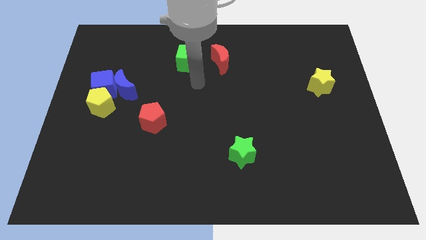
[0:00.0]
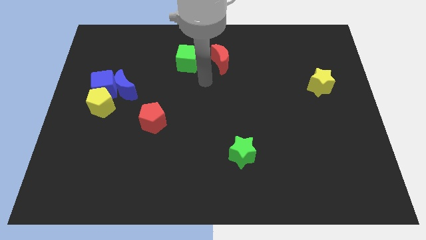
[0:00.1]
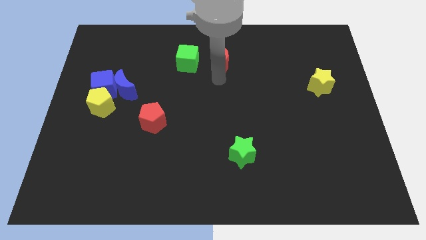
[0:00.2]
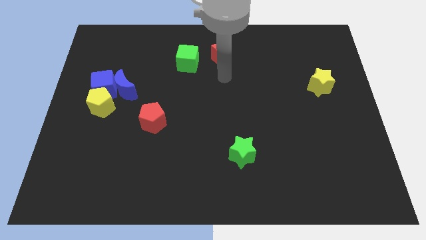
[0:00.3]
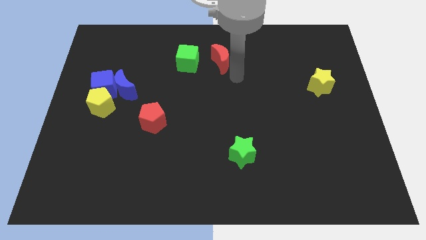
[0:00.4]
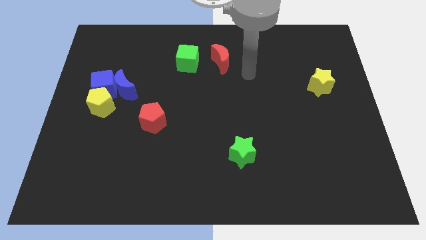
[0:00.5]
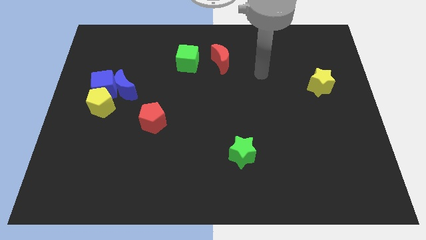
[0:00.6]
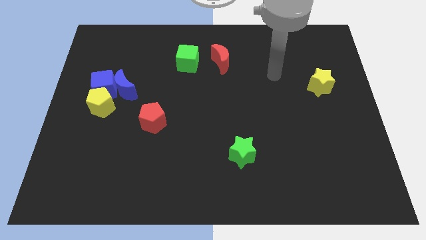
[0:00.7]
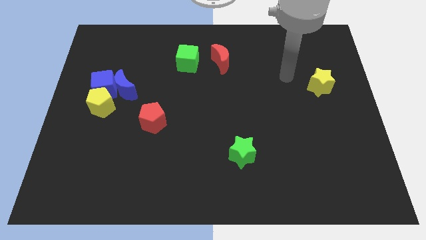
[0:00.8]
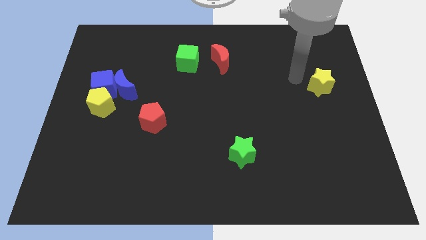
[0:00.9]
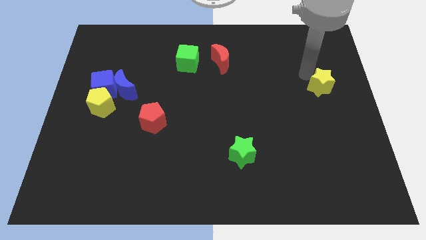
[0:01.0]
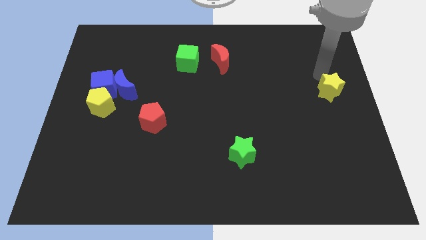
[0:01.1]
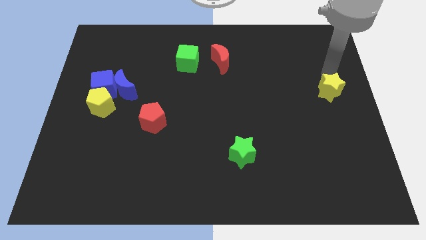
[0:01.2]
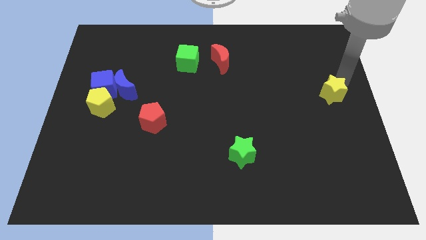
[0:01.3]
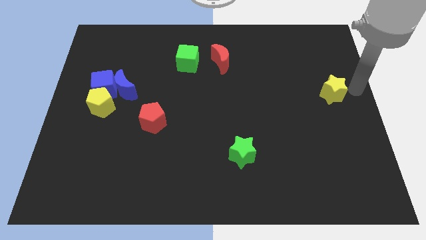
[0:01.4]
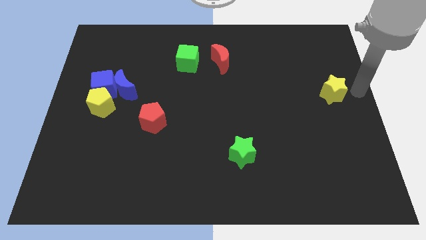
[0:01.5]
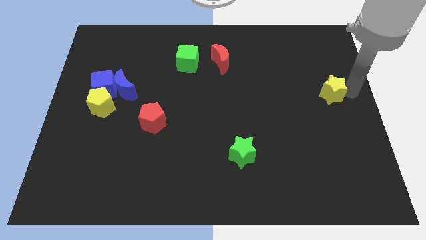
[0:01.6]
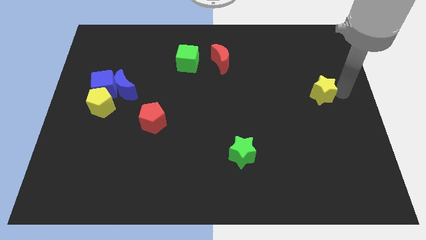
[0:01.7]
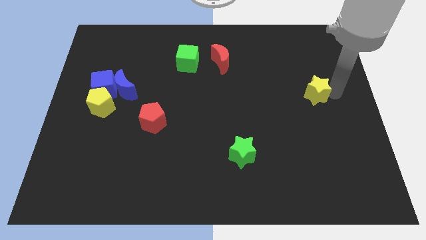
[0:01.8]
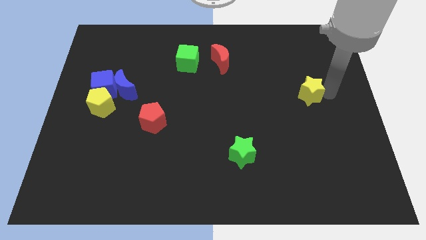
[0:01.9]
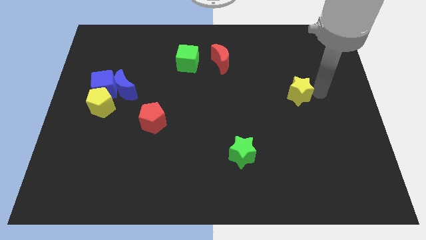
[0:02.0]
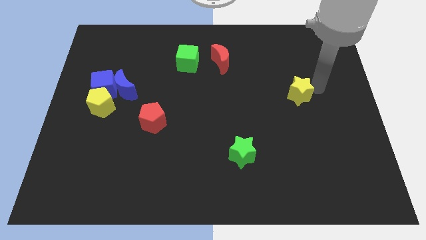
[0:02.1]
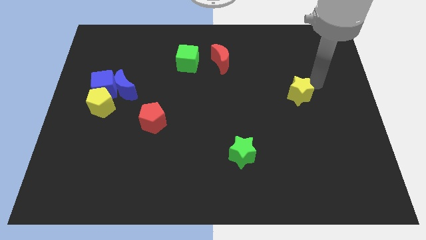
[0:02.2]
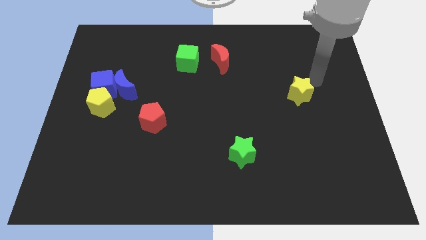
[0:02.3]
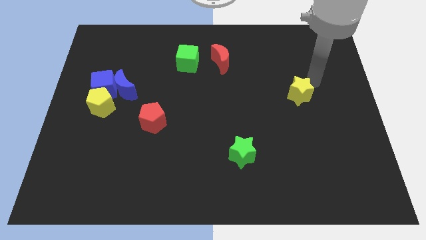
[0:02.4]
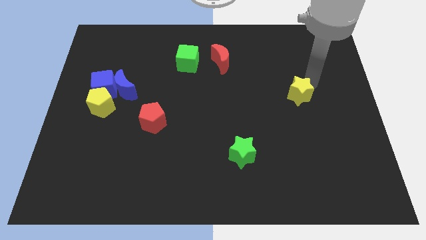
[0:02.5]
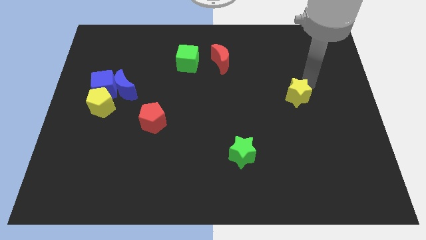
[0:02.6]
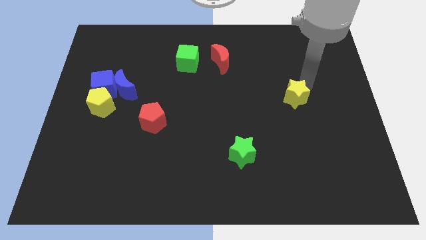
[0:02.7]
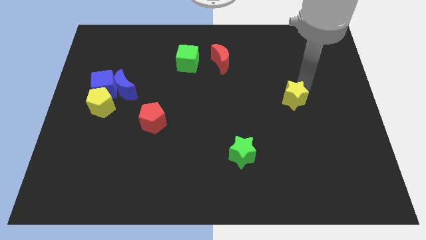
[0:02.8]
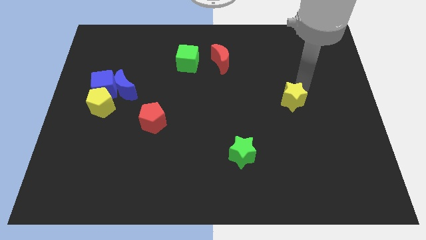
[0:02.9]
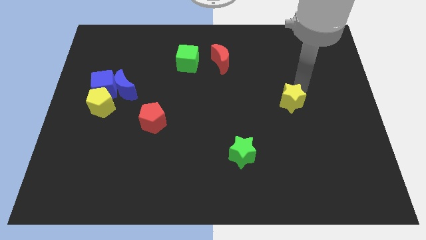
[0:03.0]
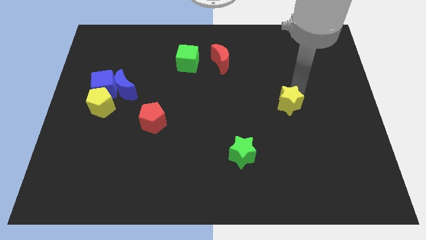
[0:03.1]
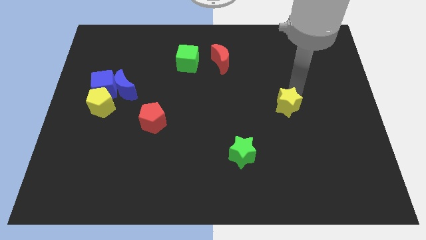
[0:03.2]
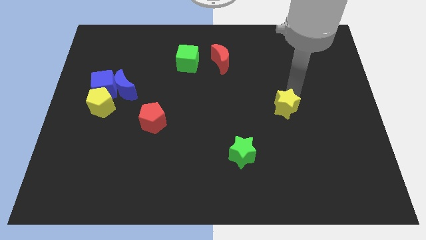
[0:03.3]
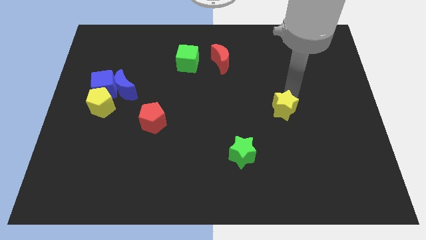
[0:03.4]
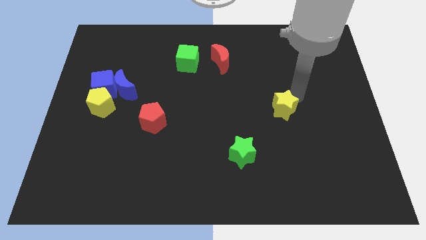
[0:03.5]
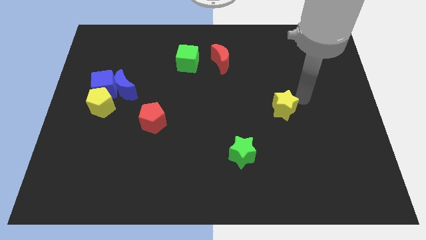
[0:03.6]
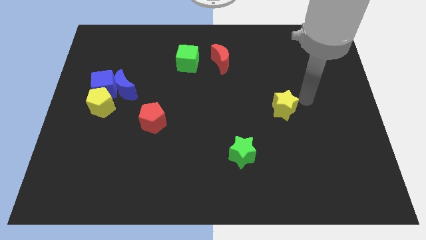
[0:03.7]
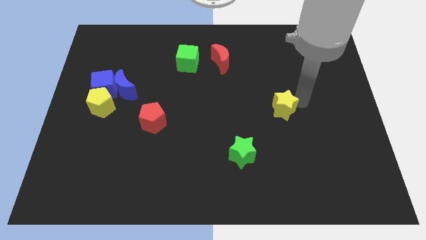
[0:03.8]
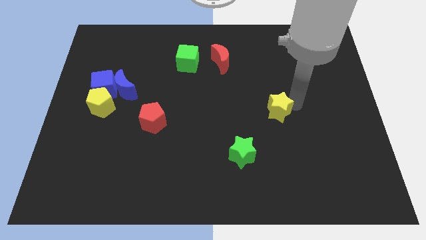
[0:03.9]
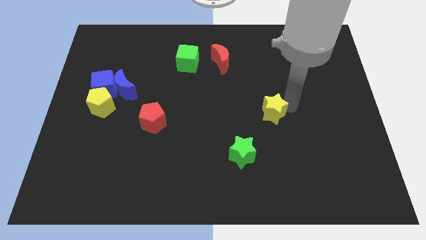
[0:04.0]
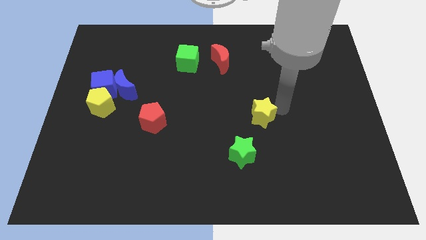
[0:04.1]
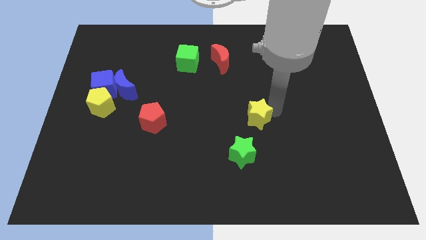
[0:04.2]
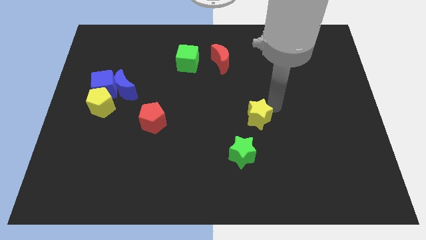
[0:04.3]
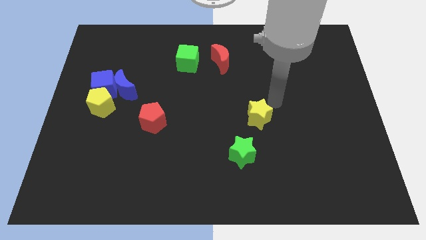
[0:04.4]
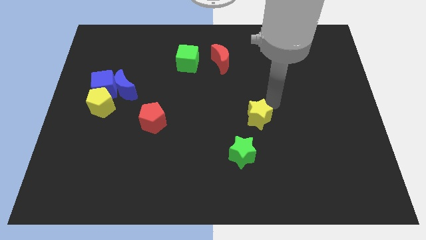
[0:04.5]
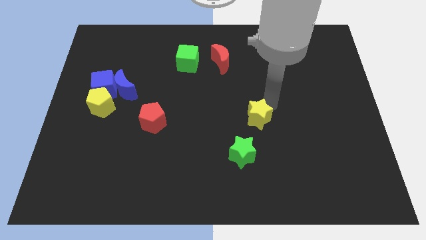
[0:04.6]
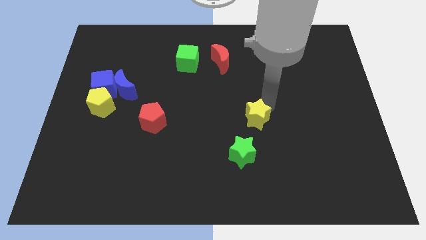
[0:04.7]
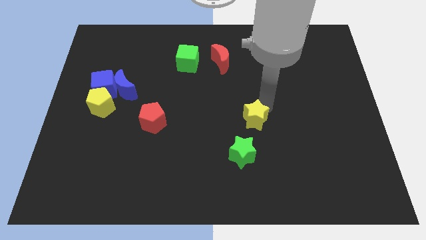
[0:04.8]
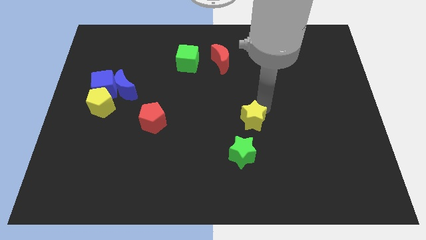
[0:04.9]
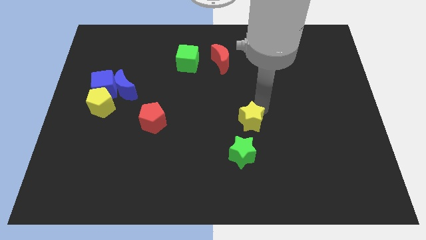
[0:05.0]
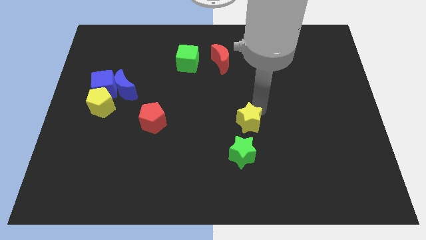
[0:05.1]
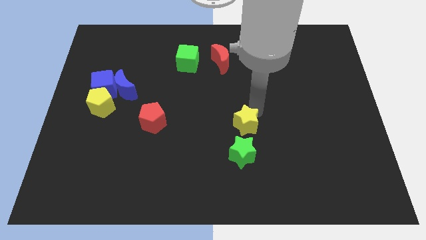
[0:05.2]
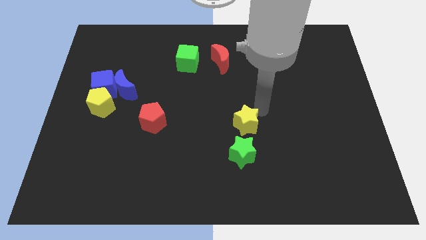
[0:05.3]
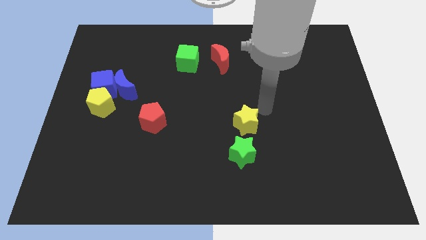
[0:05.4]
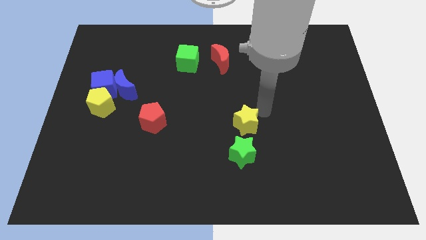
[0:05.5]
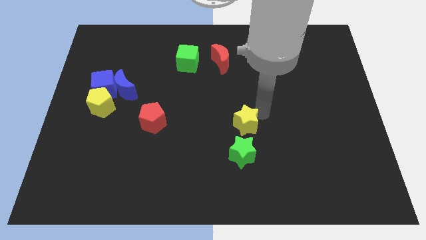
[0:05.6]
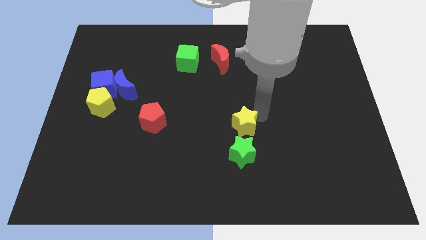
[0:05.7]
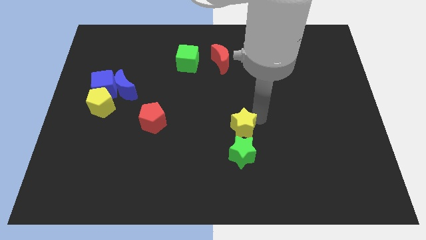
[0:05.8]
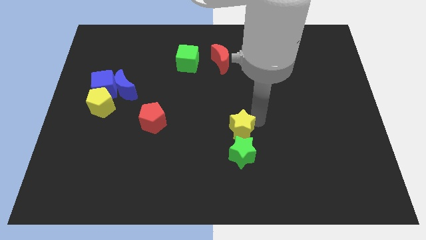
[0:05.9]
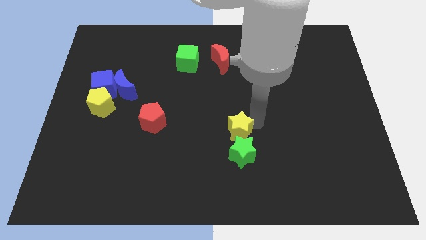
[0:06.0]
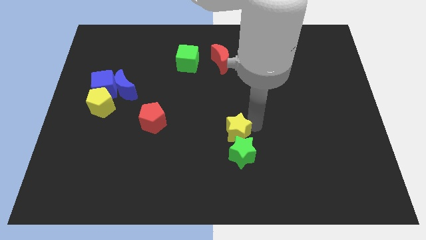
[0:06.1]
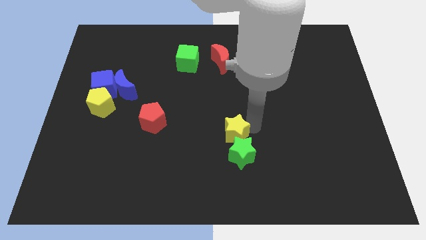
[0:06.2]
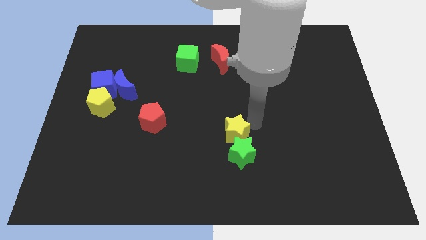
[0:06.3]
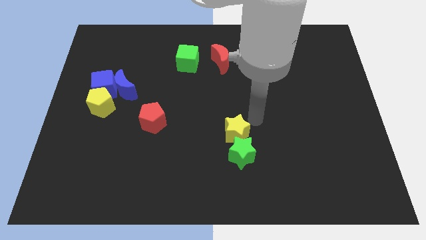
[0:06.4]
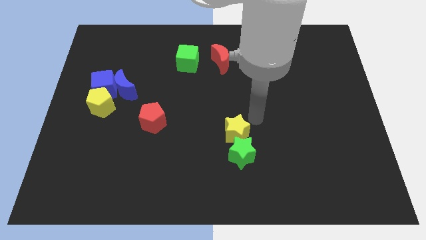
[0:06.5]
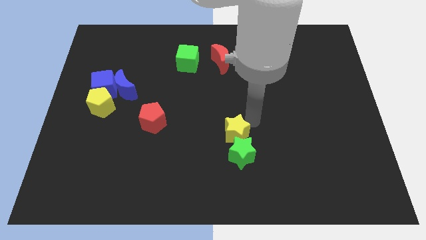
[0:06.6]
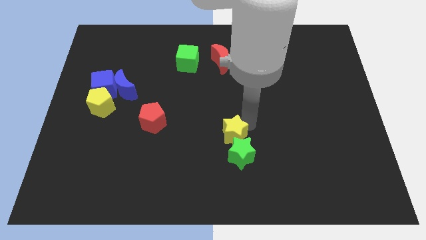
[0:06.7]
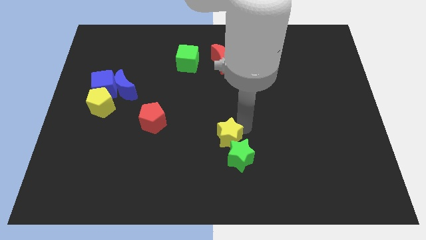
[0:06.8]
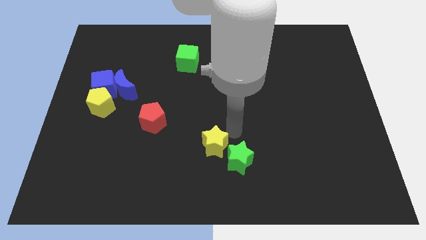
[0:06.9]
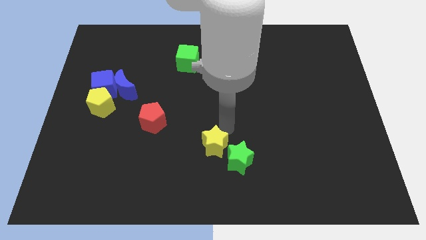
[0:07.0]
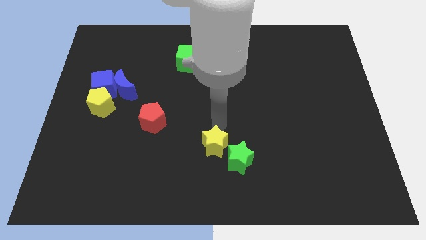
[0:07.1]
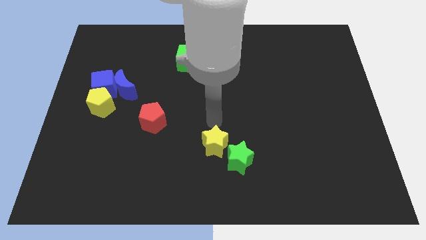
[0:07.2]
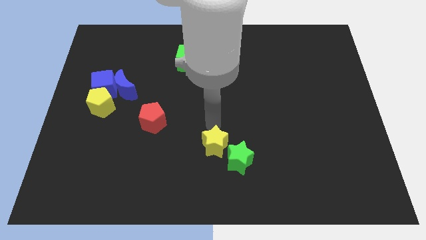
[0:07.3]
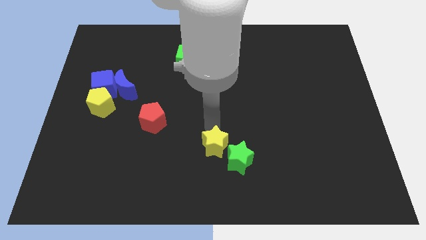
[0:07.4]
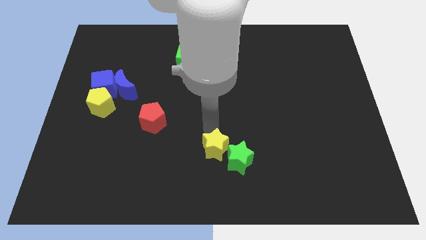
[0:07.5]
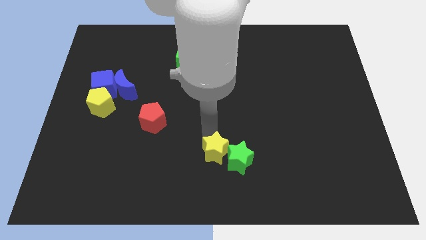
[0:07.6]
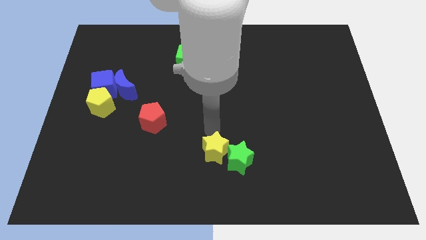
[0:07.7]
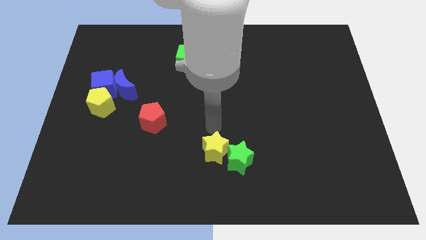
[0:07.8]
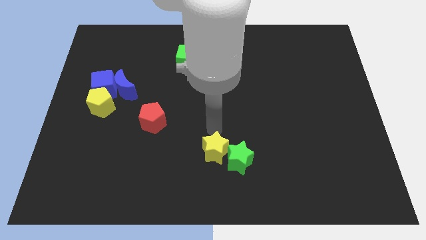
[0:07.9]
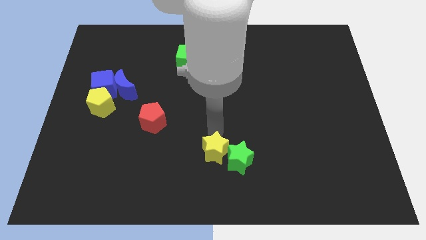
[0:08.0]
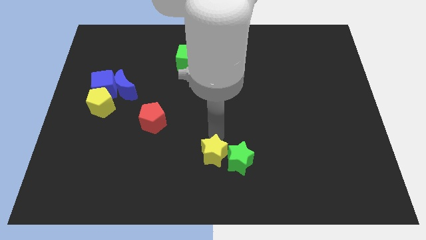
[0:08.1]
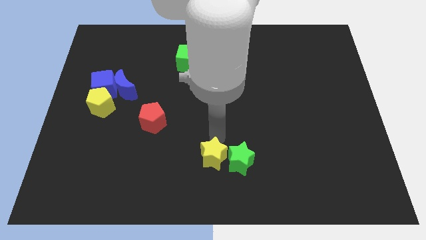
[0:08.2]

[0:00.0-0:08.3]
move the yellow star to the bottom left side of the green star
